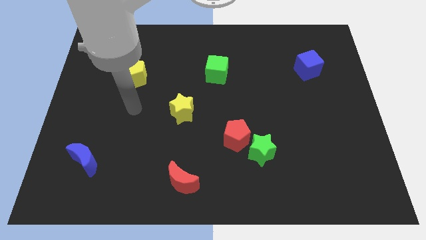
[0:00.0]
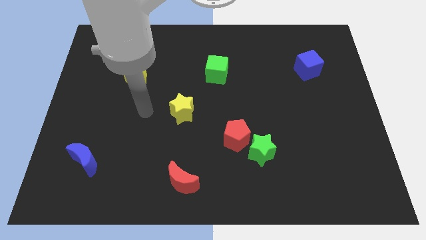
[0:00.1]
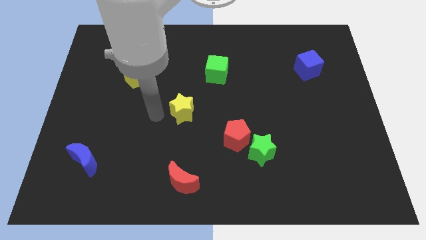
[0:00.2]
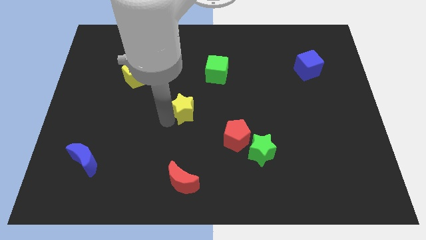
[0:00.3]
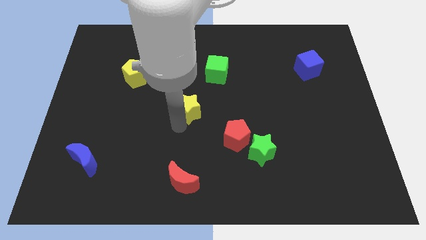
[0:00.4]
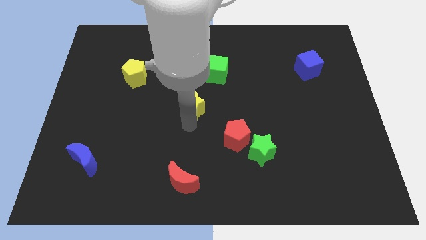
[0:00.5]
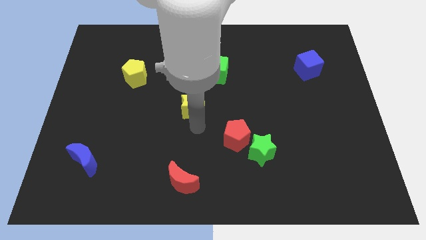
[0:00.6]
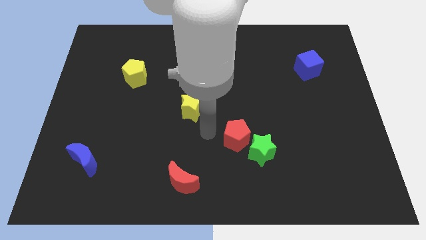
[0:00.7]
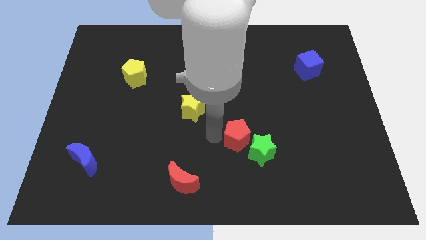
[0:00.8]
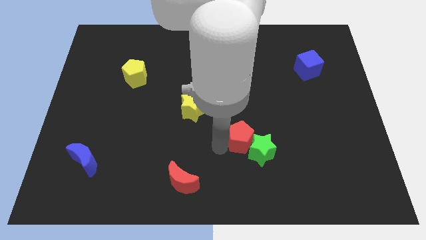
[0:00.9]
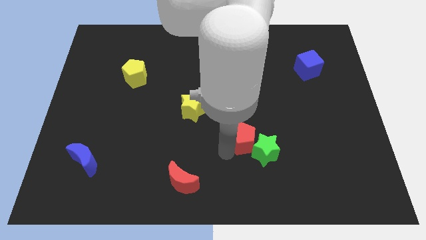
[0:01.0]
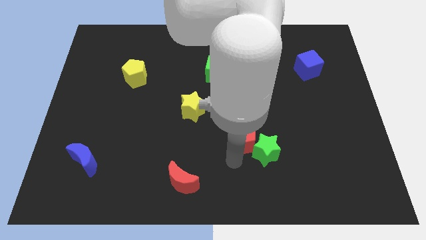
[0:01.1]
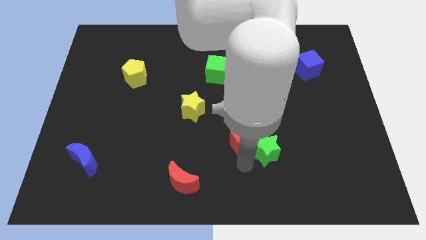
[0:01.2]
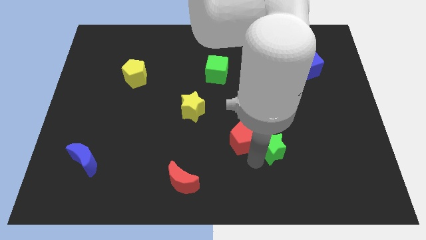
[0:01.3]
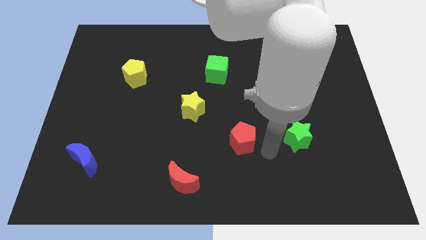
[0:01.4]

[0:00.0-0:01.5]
separate the red pentagon from the green star

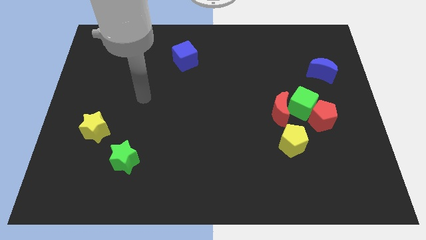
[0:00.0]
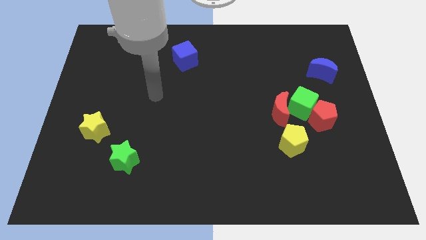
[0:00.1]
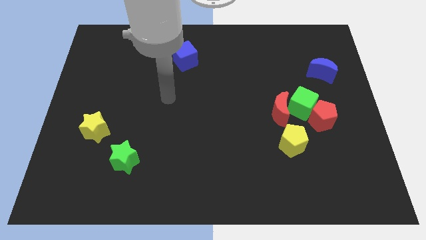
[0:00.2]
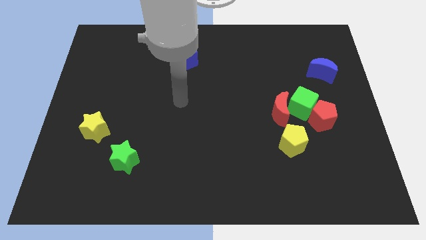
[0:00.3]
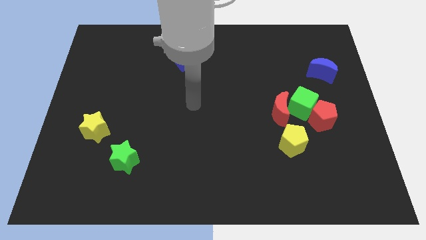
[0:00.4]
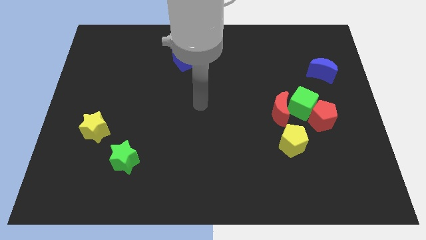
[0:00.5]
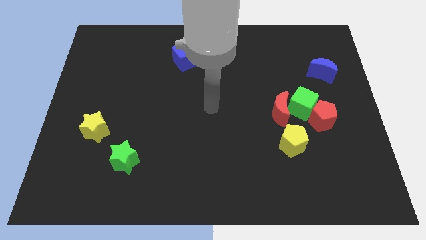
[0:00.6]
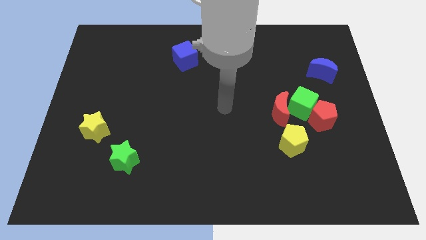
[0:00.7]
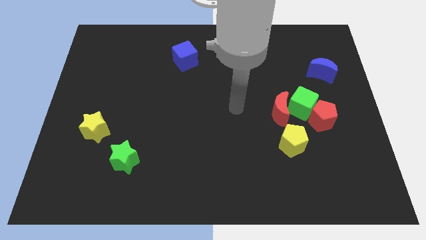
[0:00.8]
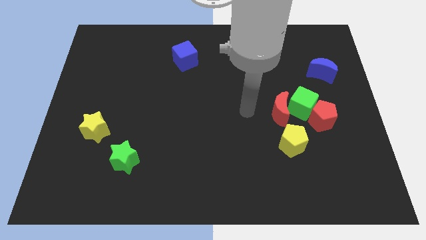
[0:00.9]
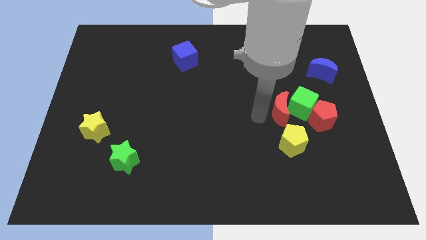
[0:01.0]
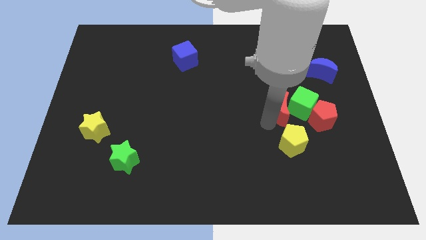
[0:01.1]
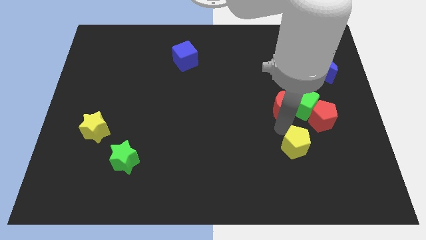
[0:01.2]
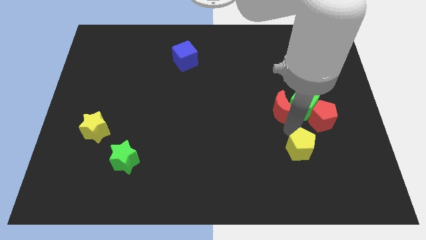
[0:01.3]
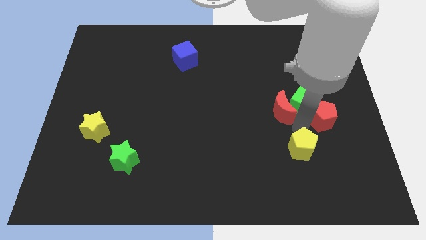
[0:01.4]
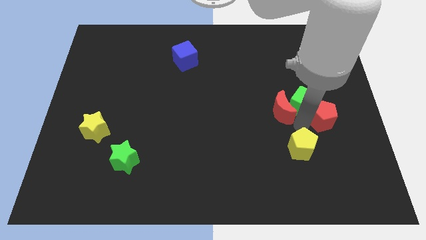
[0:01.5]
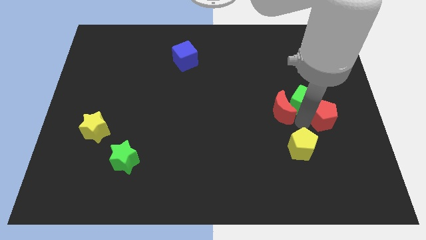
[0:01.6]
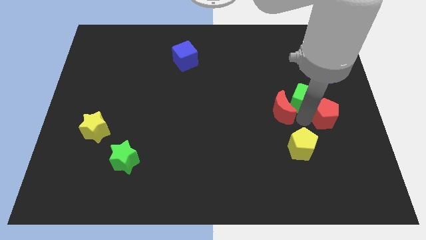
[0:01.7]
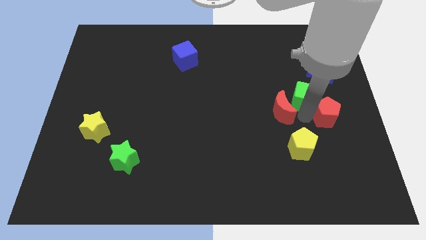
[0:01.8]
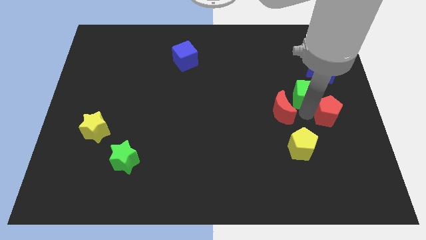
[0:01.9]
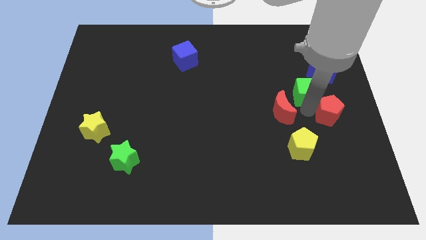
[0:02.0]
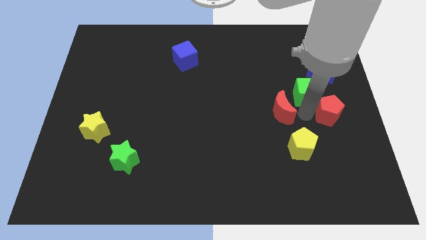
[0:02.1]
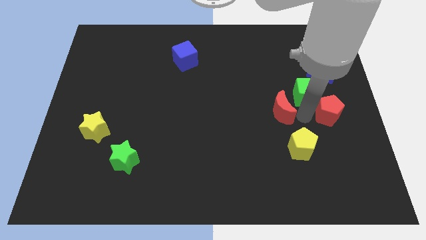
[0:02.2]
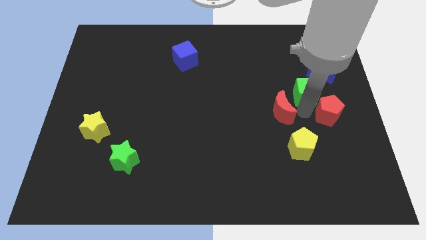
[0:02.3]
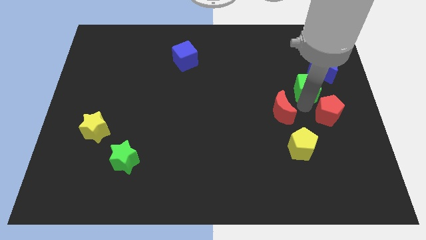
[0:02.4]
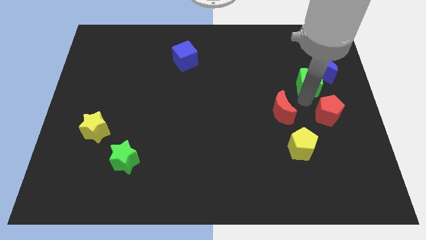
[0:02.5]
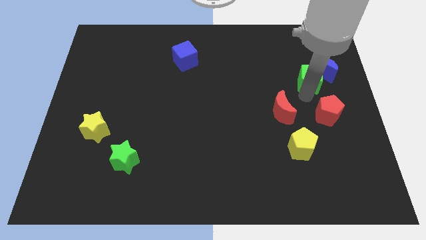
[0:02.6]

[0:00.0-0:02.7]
pull the green cube apart from the red pentagon and red moon

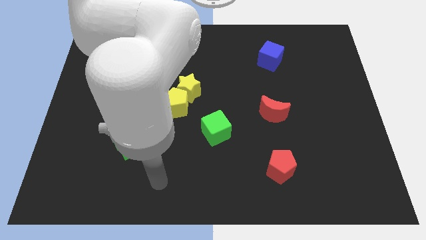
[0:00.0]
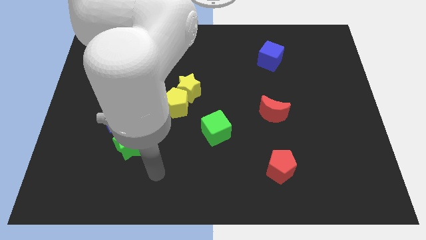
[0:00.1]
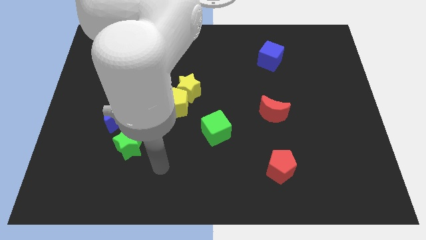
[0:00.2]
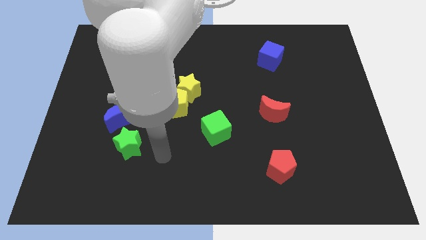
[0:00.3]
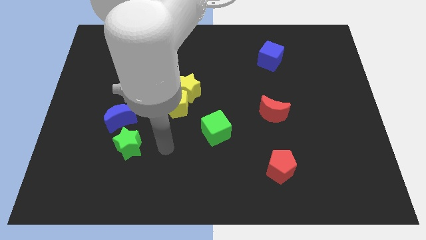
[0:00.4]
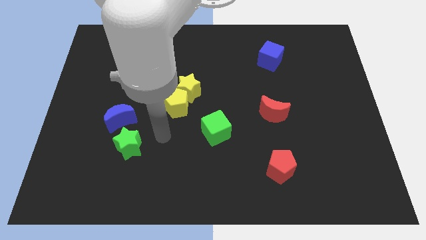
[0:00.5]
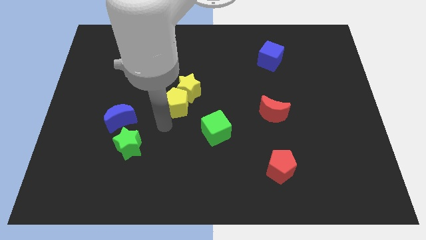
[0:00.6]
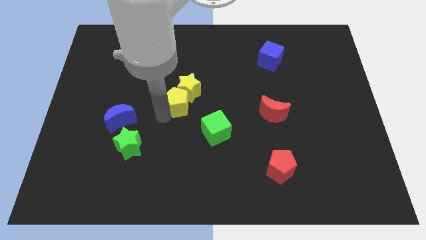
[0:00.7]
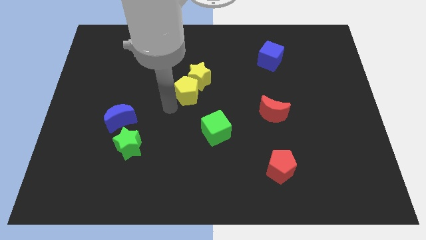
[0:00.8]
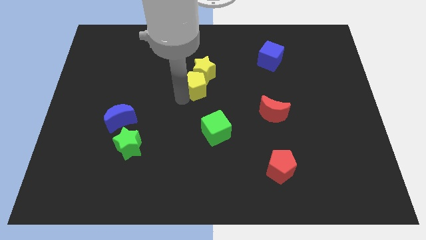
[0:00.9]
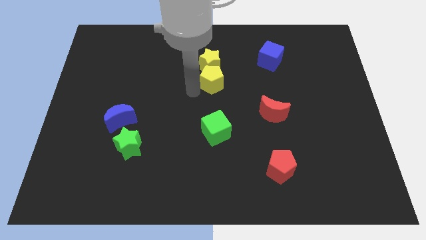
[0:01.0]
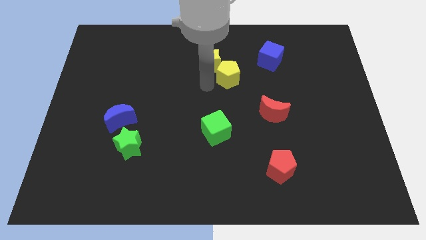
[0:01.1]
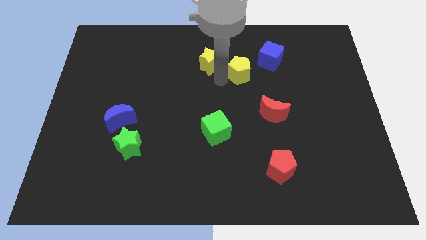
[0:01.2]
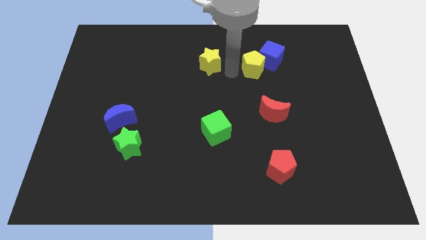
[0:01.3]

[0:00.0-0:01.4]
move the yellow star away from the yellow pentagon

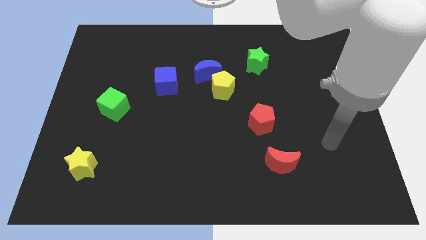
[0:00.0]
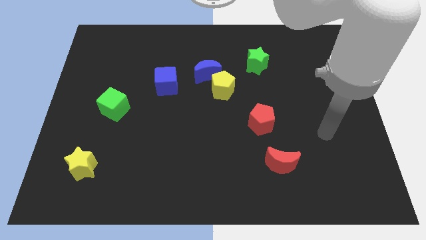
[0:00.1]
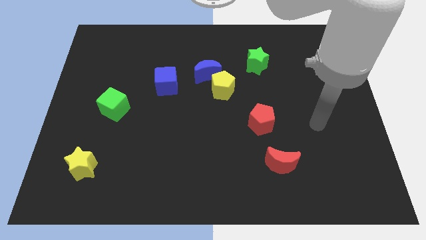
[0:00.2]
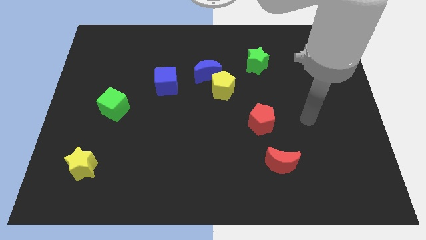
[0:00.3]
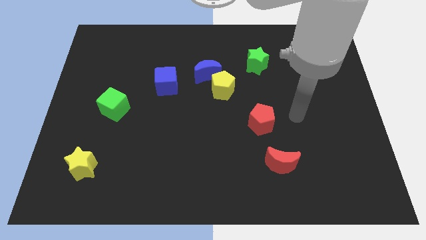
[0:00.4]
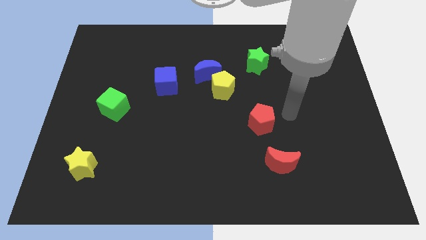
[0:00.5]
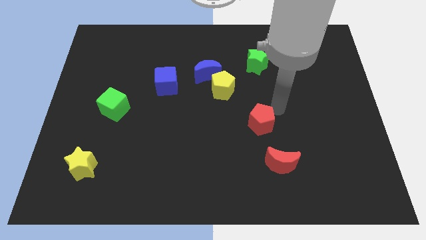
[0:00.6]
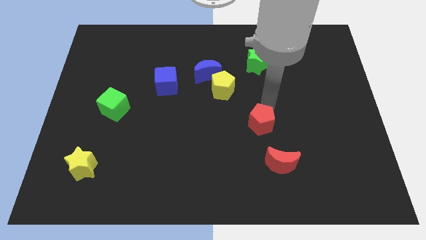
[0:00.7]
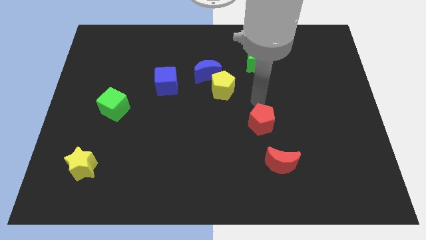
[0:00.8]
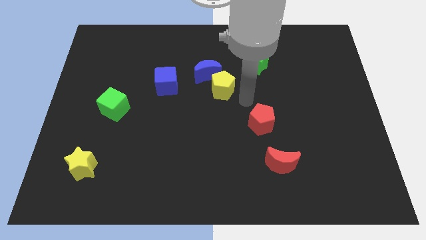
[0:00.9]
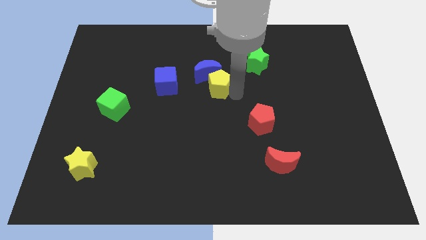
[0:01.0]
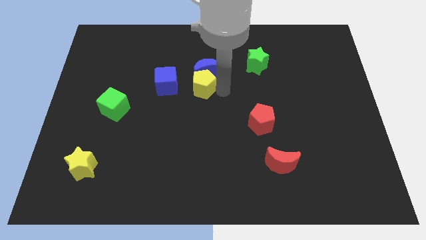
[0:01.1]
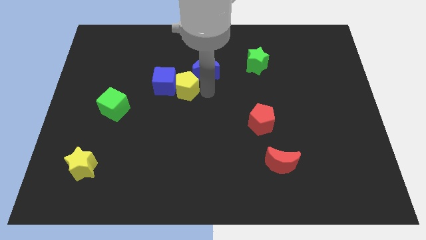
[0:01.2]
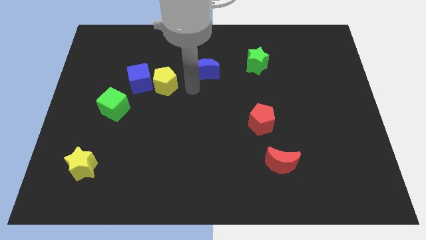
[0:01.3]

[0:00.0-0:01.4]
pull the blue moon apart from the yellow pentagon

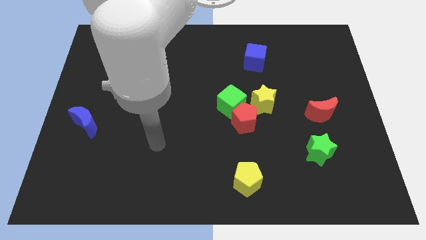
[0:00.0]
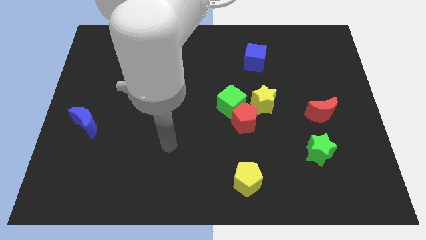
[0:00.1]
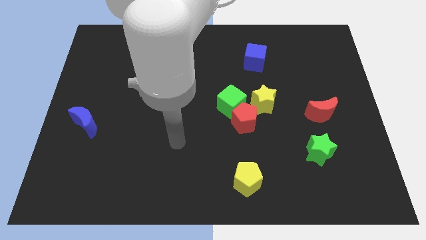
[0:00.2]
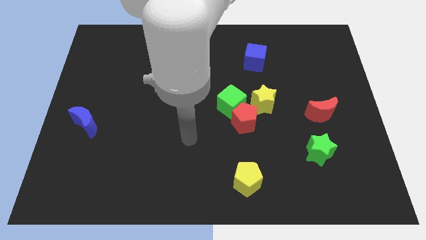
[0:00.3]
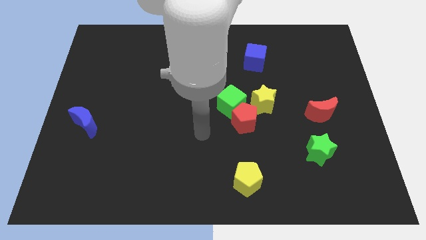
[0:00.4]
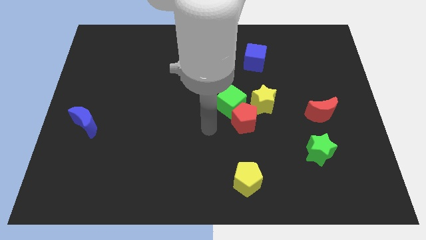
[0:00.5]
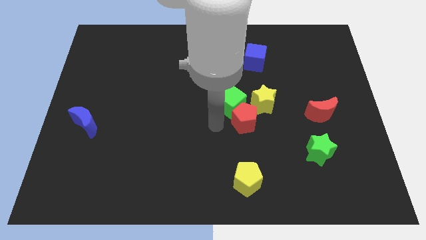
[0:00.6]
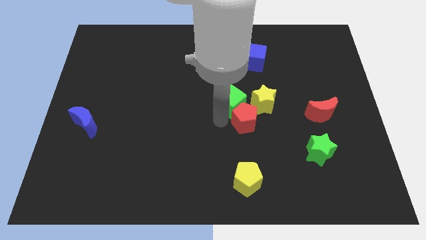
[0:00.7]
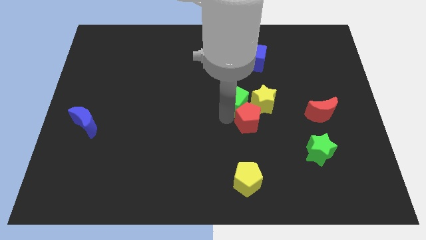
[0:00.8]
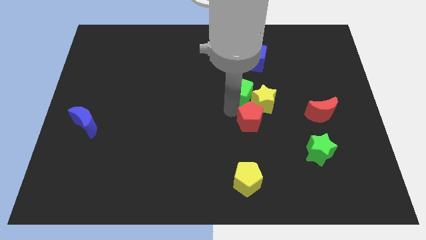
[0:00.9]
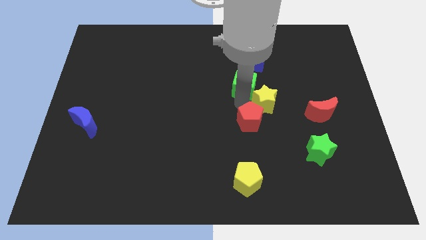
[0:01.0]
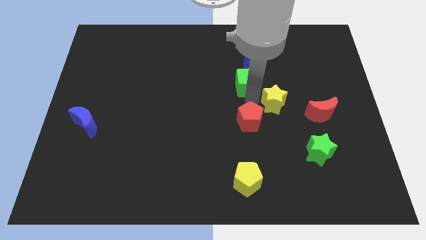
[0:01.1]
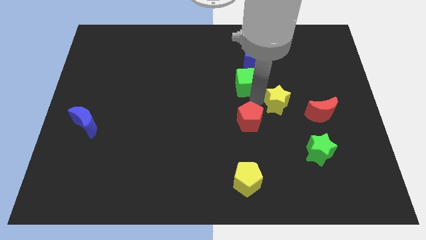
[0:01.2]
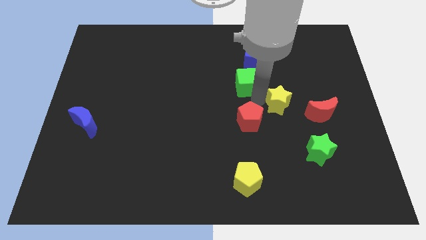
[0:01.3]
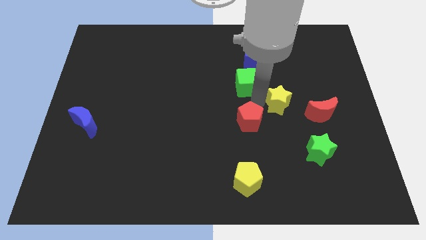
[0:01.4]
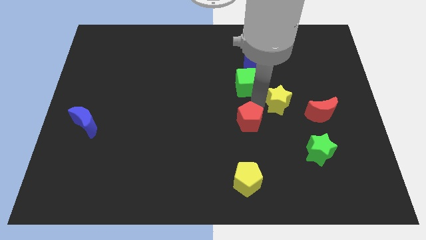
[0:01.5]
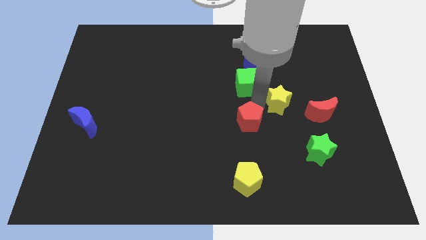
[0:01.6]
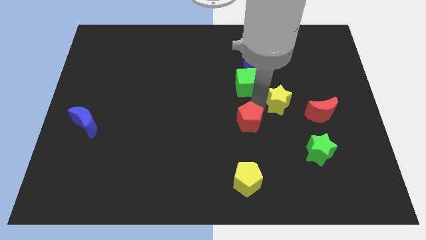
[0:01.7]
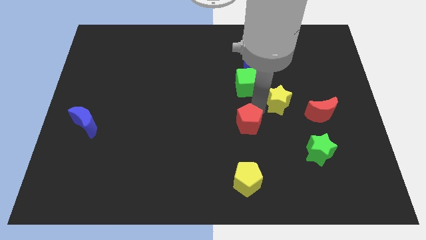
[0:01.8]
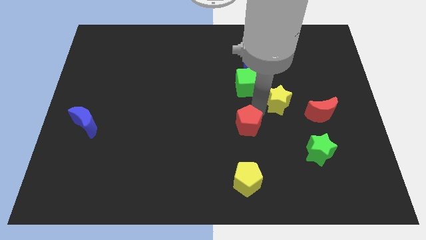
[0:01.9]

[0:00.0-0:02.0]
pull the red pentagon apart from the green cube and yellow star

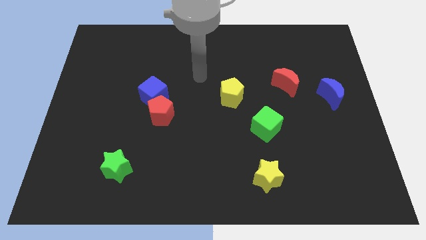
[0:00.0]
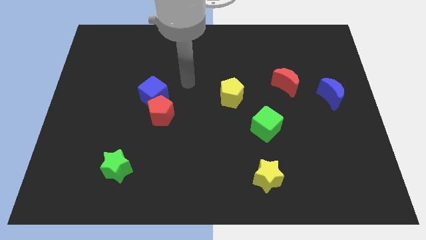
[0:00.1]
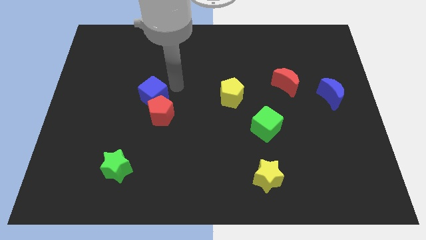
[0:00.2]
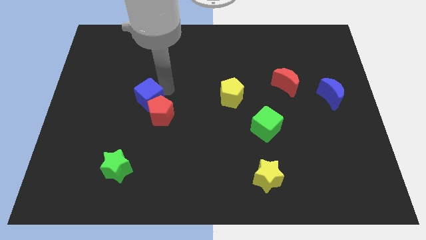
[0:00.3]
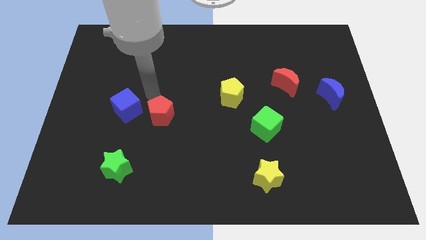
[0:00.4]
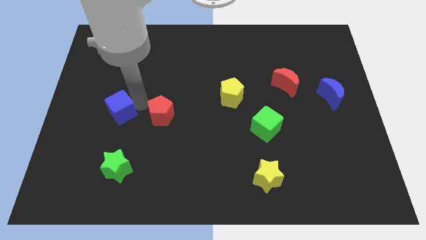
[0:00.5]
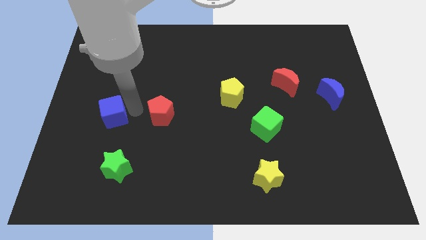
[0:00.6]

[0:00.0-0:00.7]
move the red pentagon away from the blue cube
